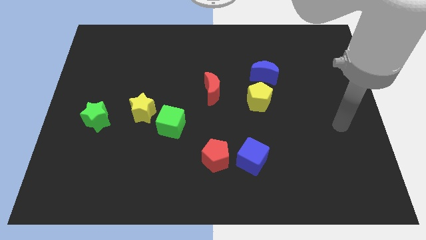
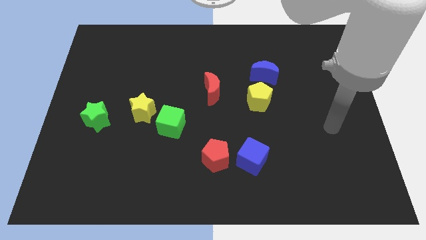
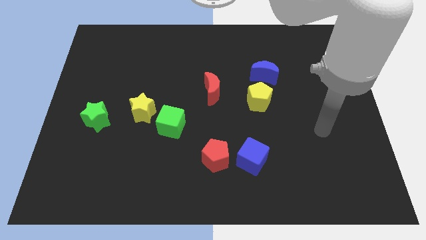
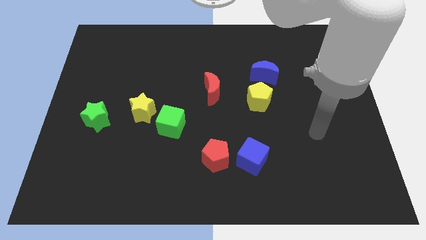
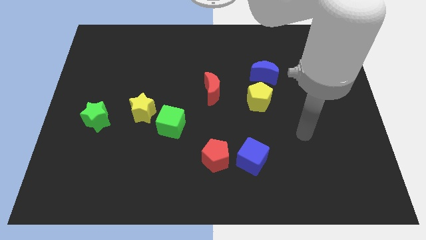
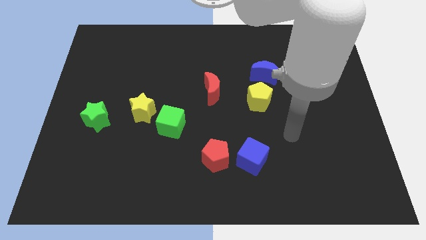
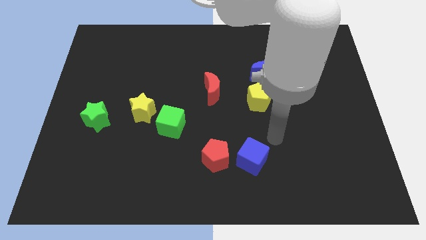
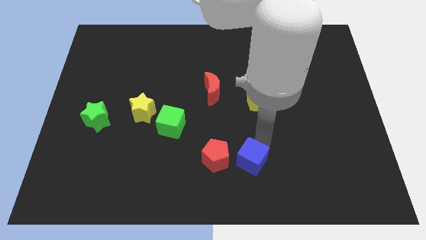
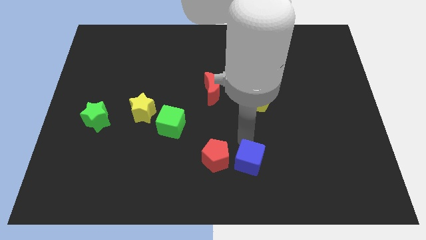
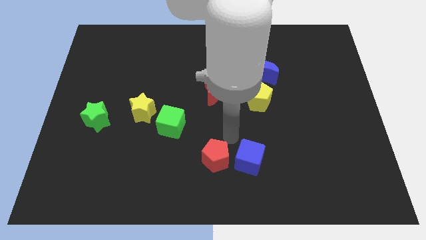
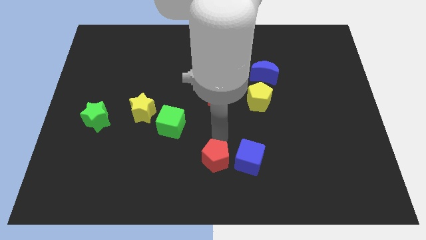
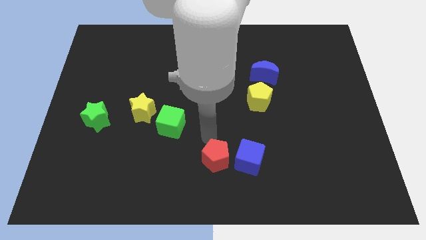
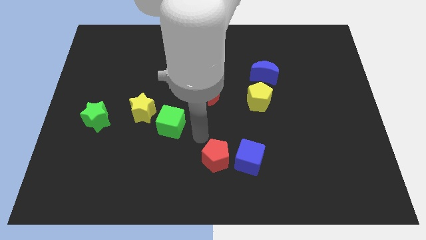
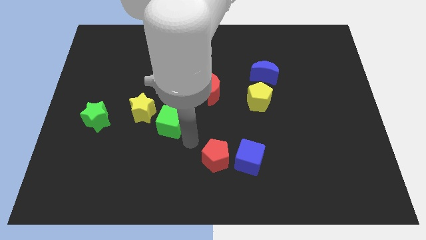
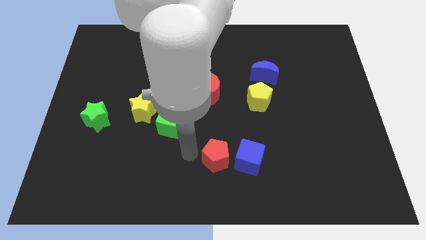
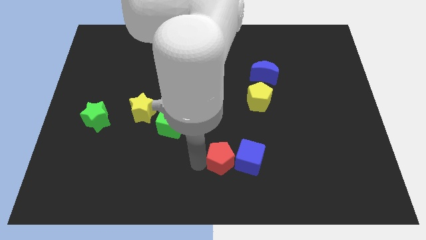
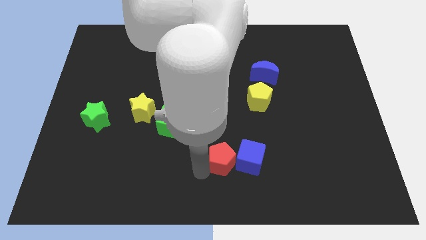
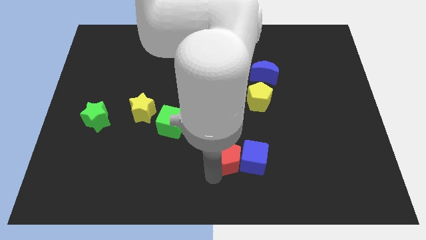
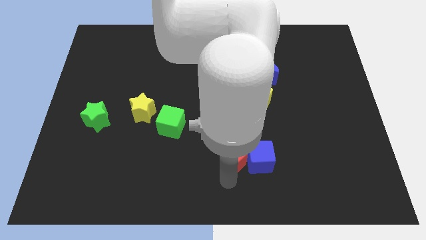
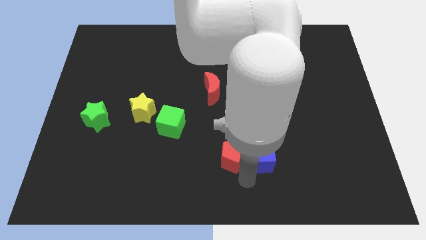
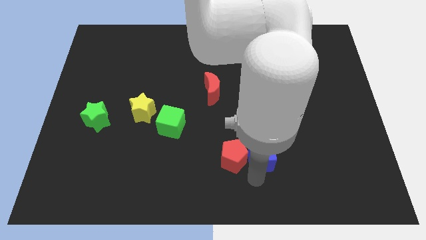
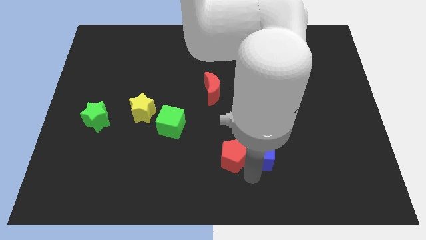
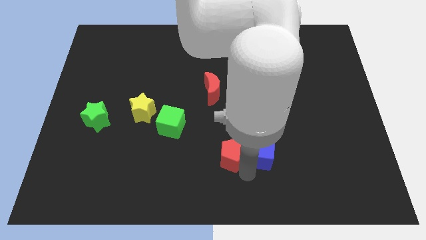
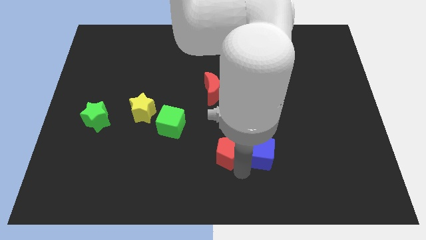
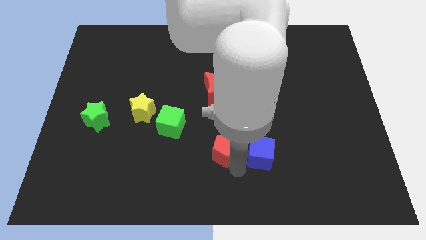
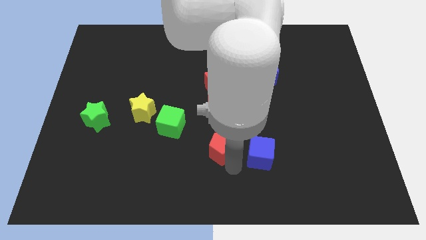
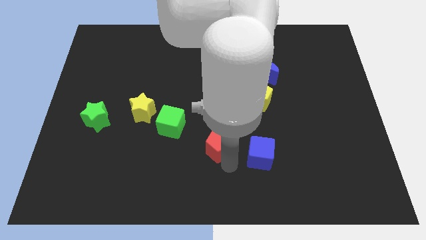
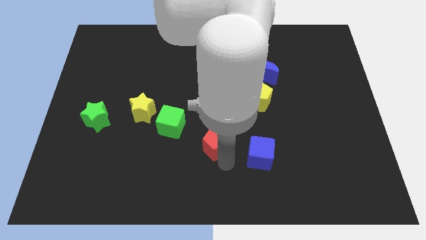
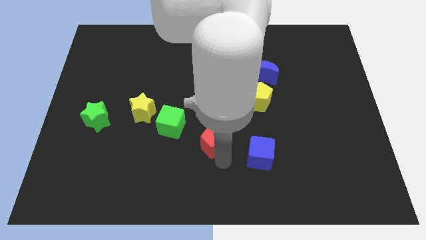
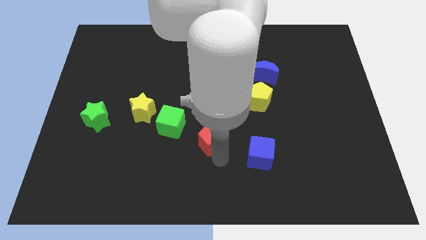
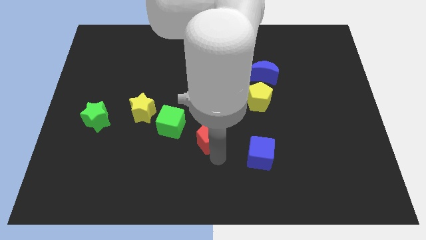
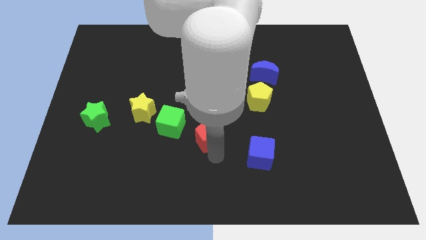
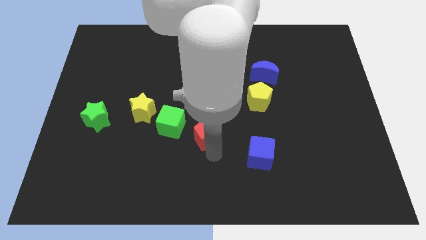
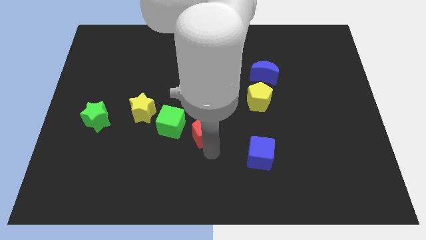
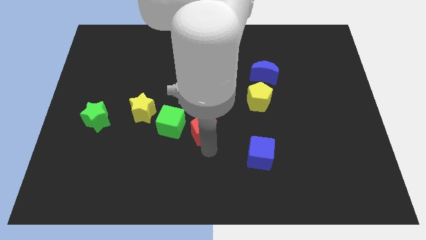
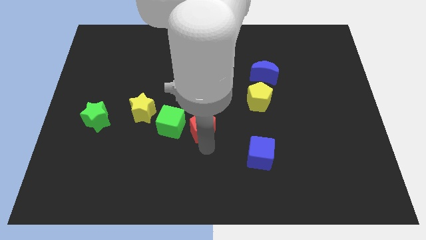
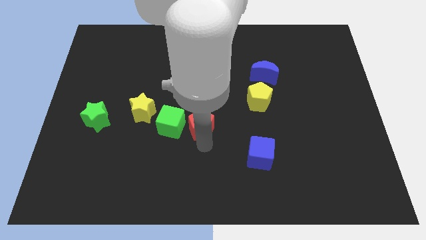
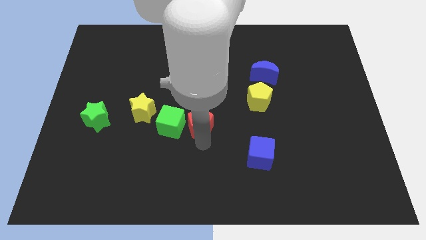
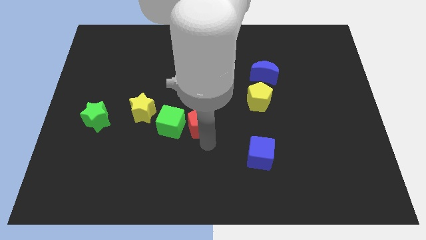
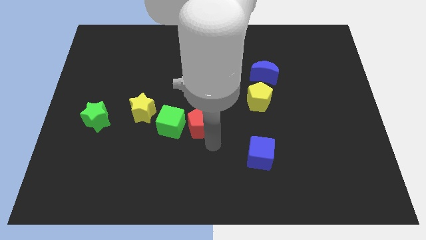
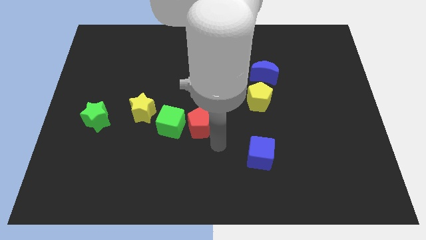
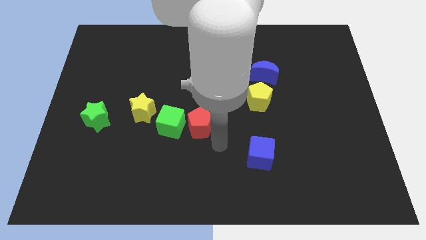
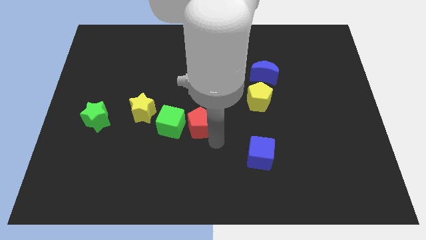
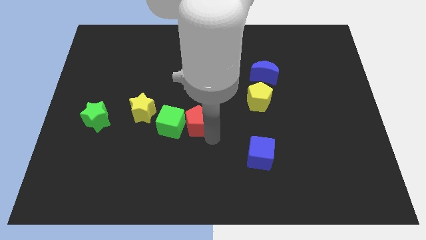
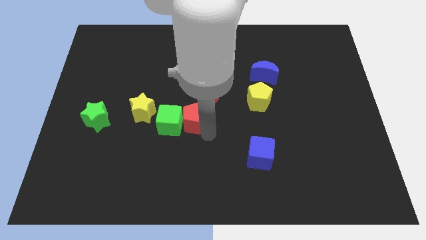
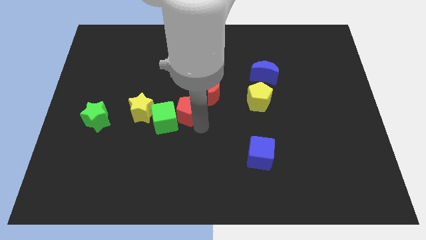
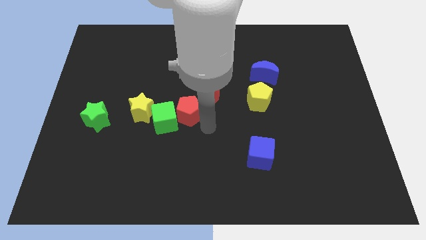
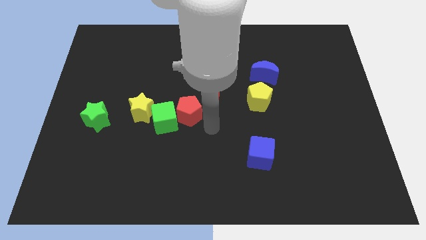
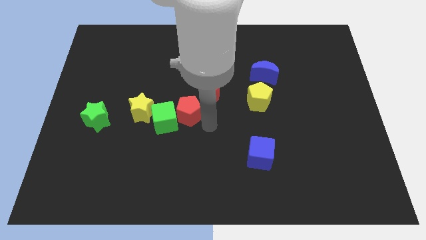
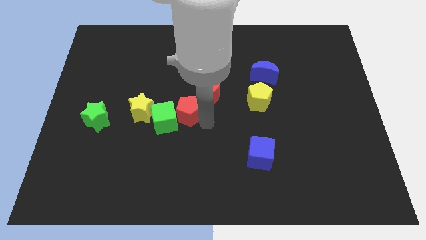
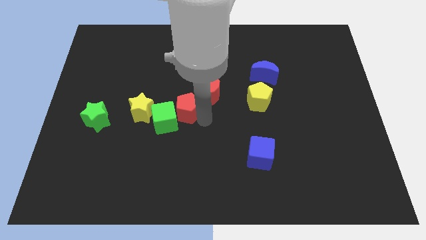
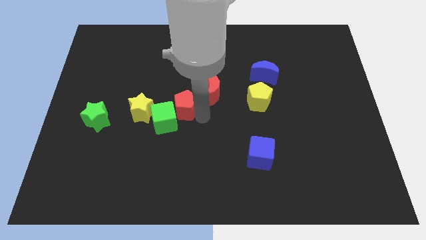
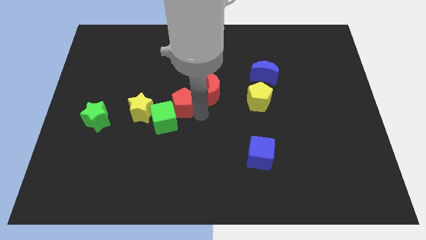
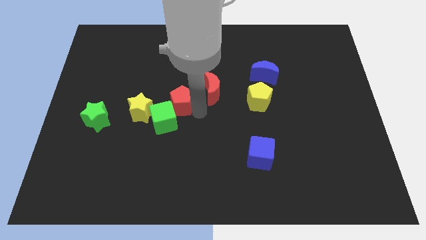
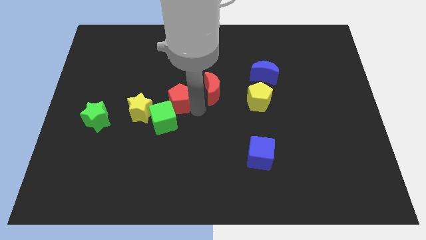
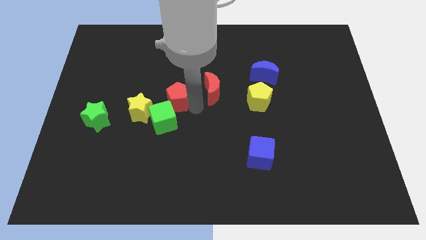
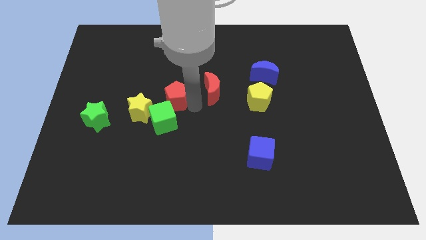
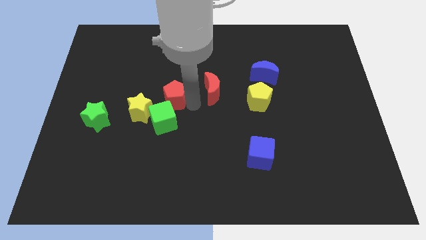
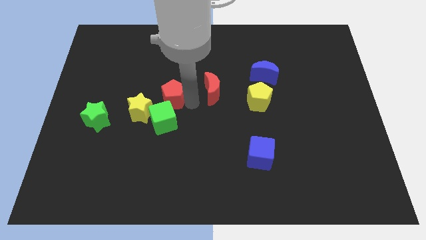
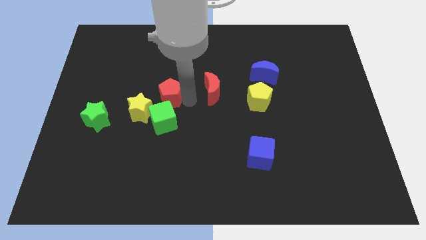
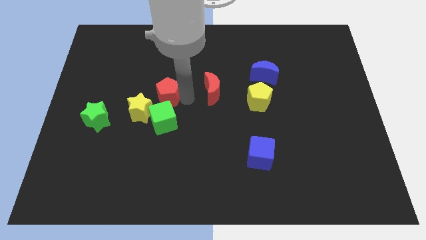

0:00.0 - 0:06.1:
push the red pentagon upwards and to the left

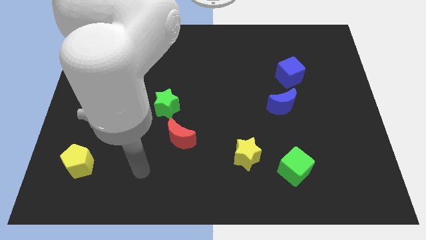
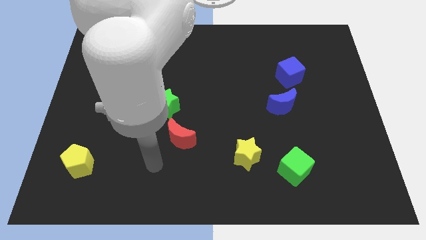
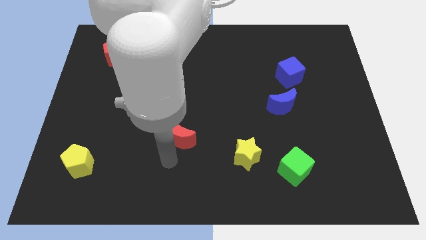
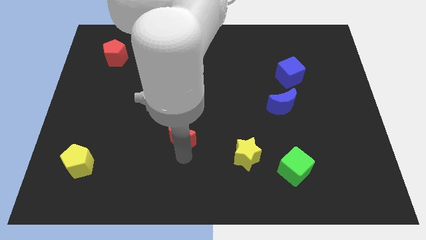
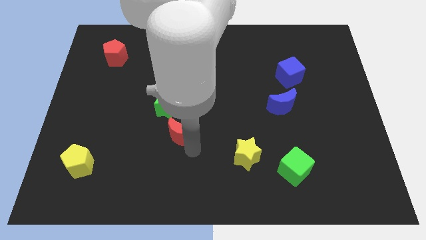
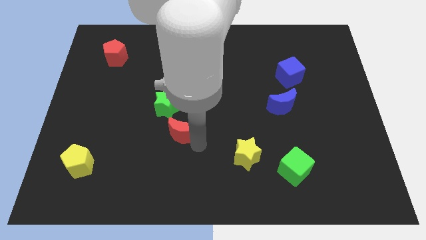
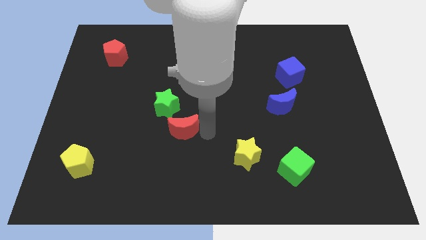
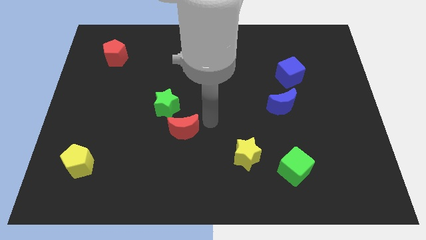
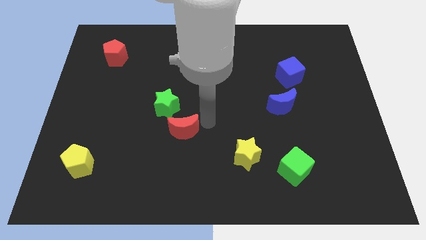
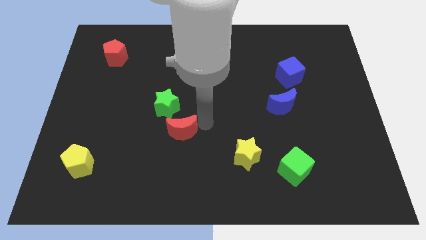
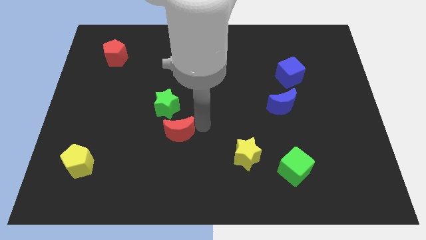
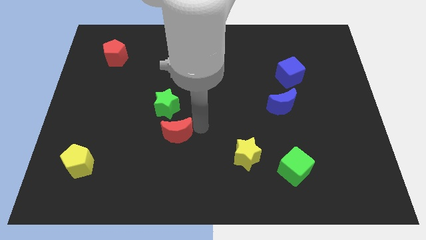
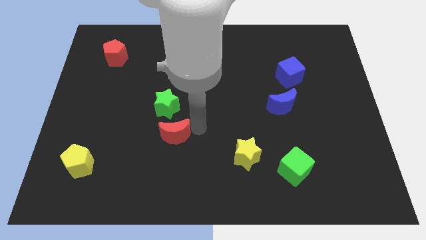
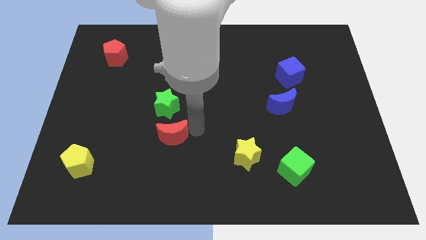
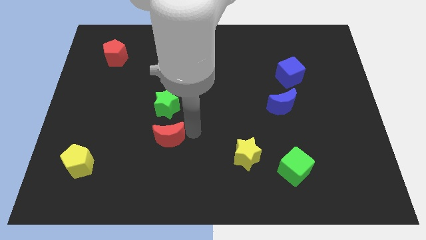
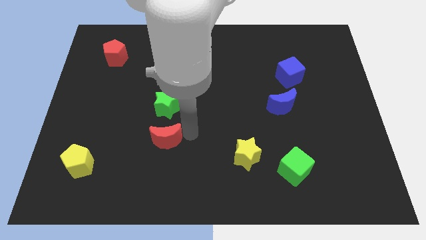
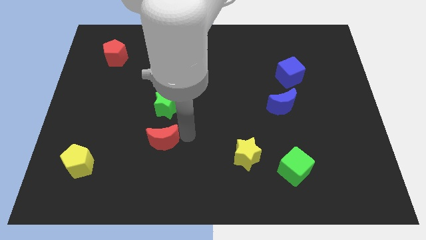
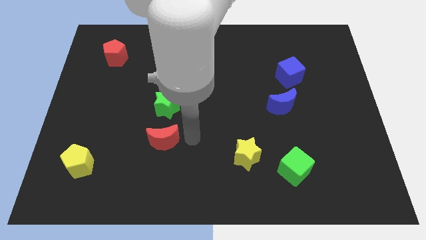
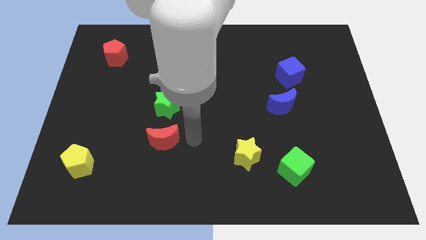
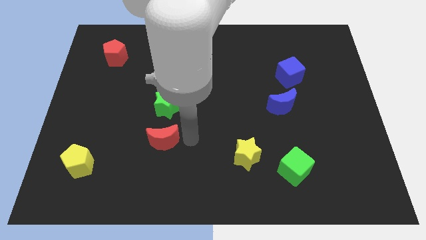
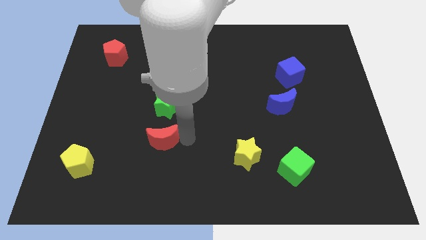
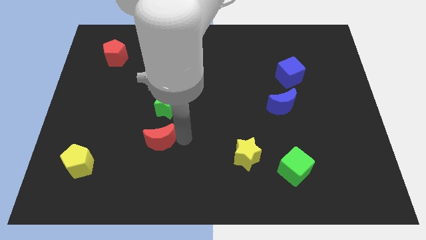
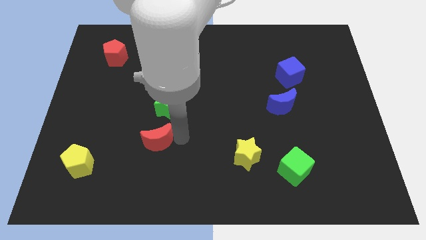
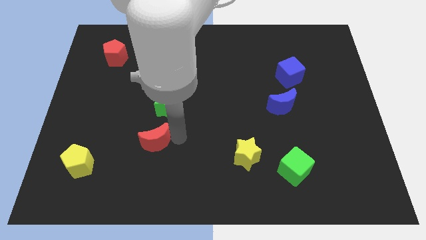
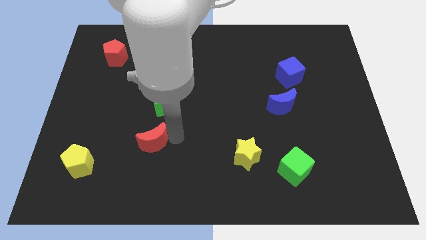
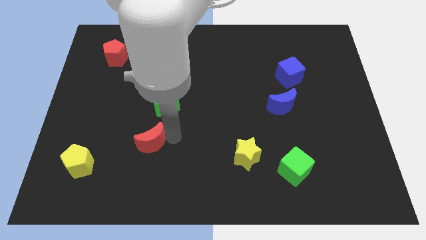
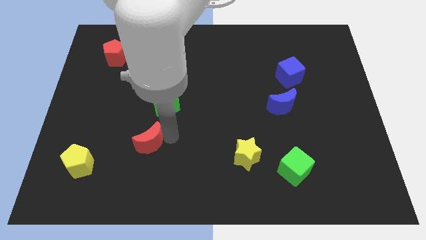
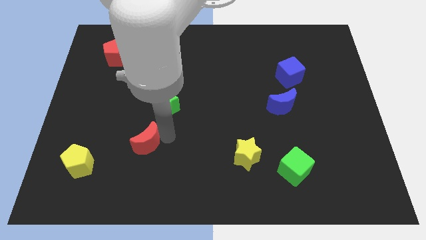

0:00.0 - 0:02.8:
push the red moon to the left a little
